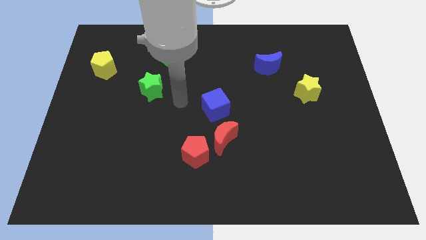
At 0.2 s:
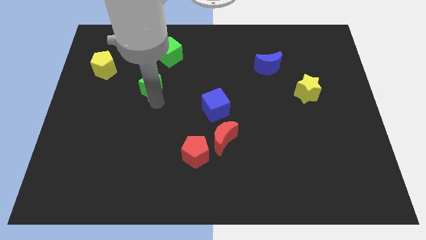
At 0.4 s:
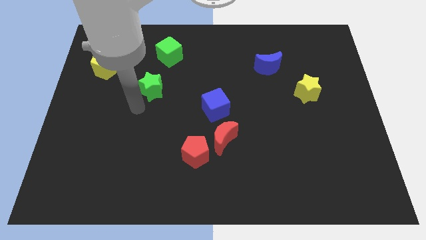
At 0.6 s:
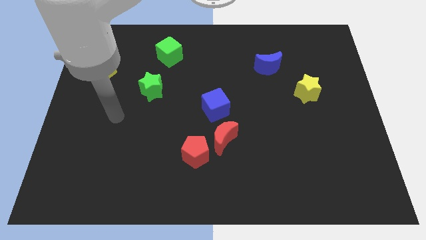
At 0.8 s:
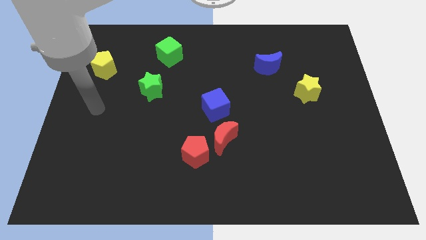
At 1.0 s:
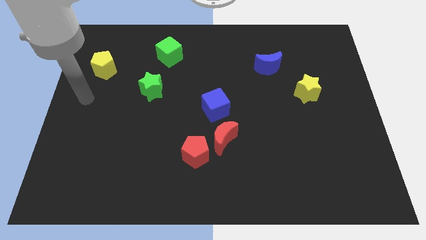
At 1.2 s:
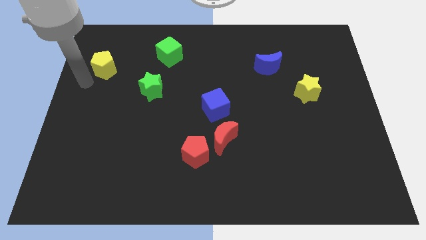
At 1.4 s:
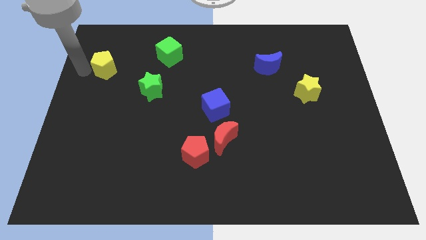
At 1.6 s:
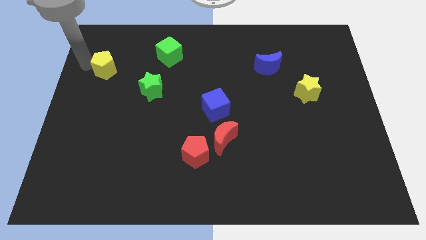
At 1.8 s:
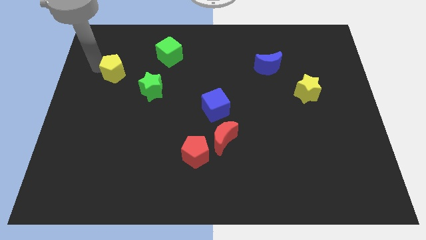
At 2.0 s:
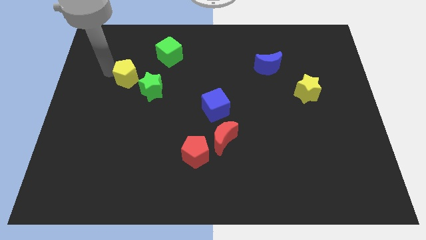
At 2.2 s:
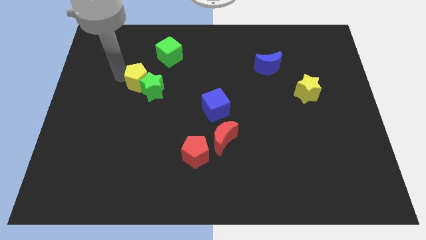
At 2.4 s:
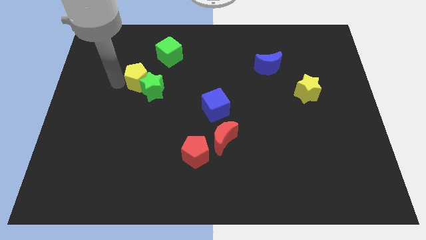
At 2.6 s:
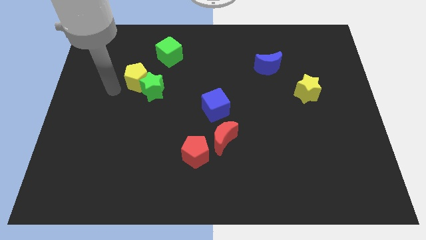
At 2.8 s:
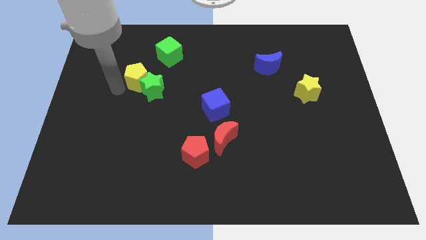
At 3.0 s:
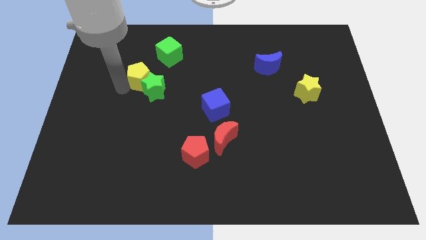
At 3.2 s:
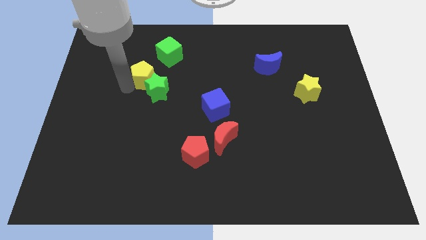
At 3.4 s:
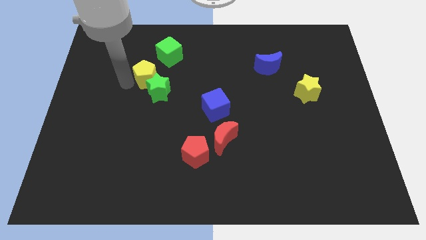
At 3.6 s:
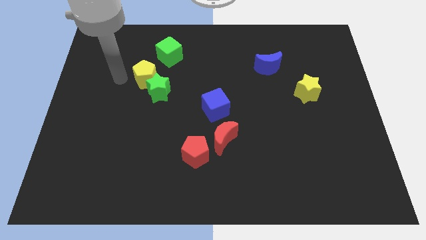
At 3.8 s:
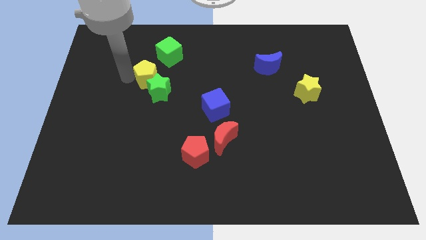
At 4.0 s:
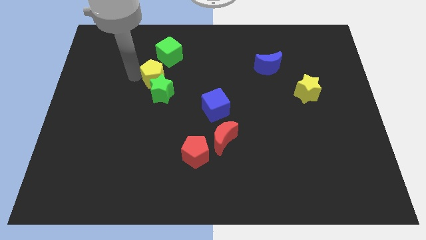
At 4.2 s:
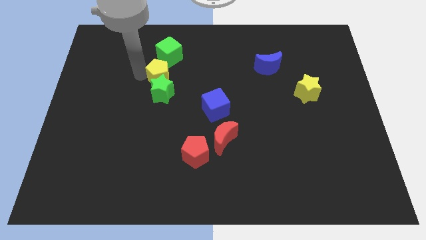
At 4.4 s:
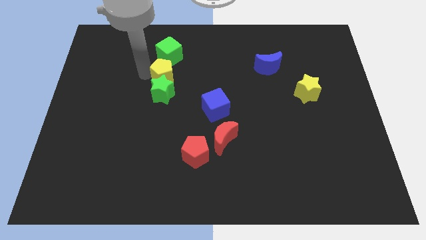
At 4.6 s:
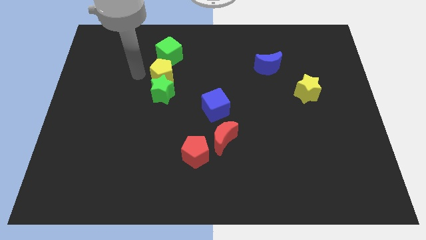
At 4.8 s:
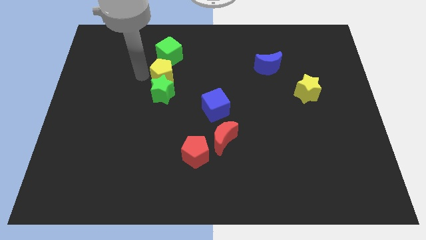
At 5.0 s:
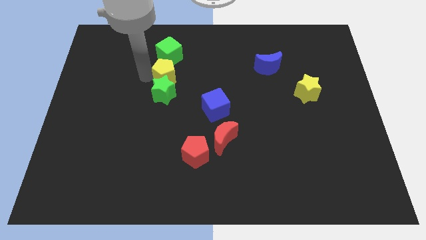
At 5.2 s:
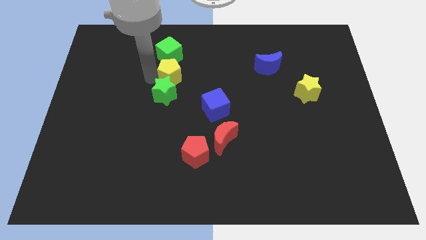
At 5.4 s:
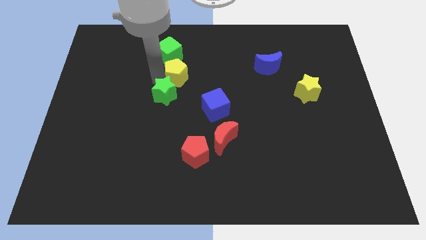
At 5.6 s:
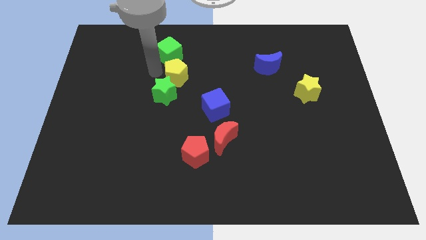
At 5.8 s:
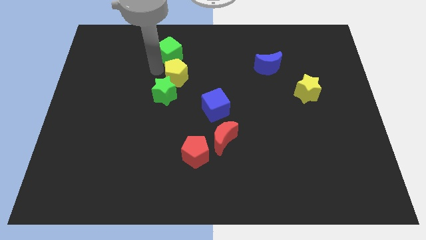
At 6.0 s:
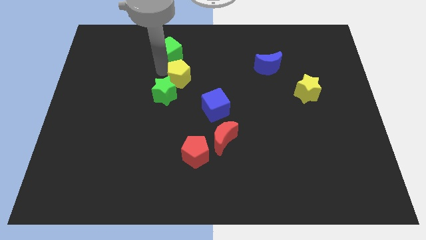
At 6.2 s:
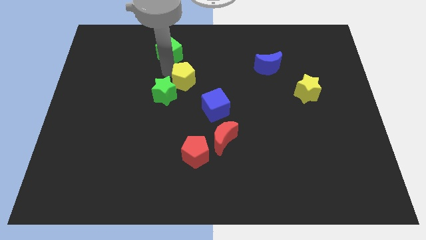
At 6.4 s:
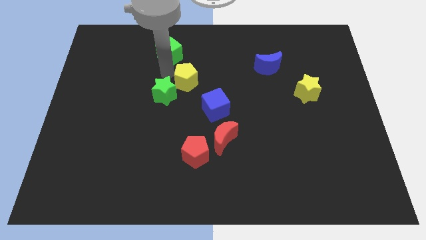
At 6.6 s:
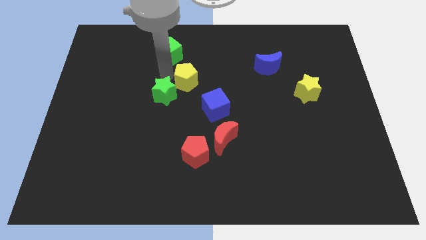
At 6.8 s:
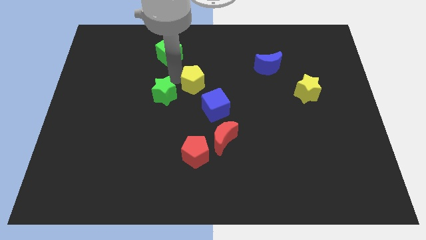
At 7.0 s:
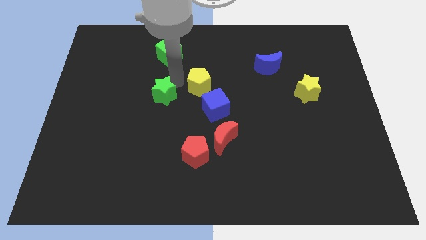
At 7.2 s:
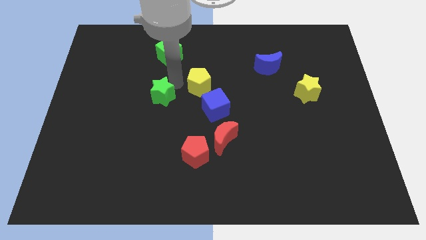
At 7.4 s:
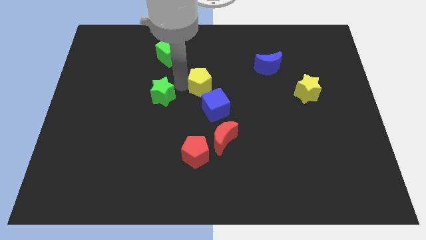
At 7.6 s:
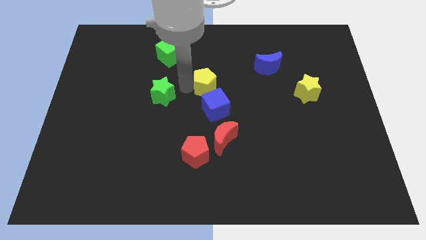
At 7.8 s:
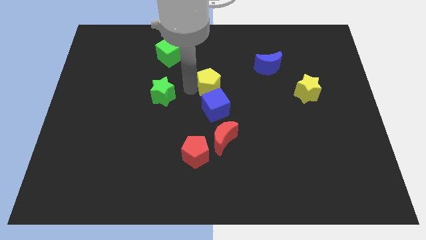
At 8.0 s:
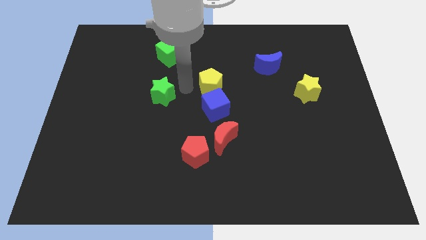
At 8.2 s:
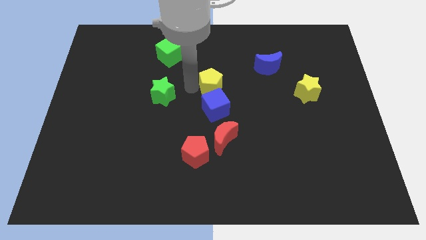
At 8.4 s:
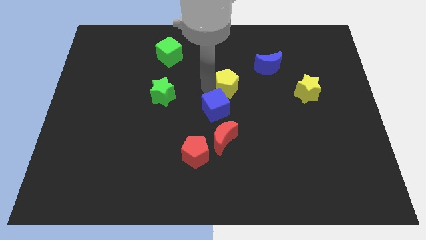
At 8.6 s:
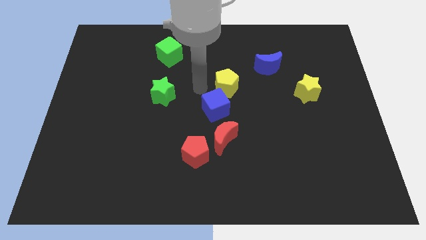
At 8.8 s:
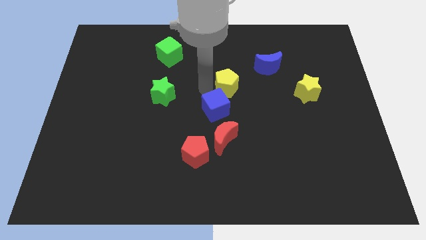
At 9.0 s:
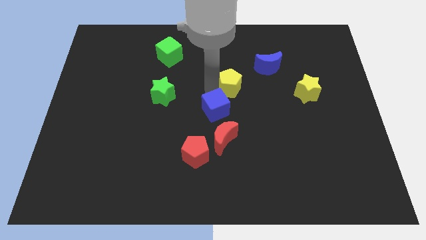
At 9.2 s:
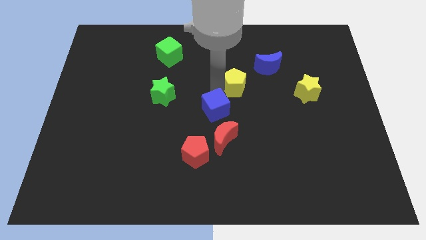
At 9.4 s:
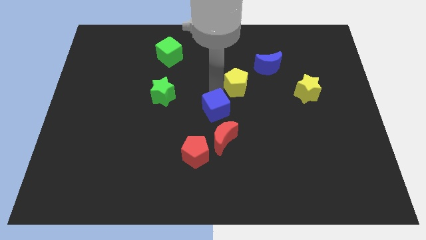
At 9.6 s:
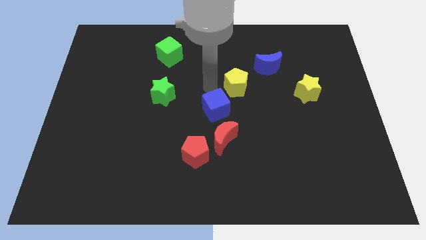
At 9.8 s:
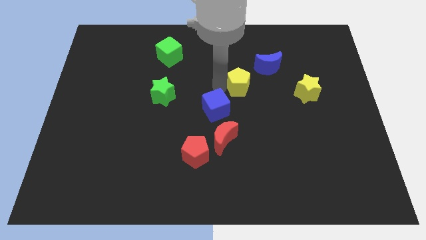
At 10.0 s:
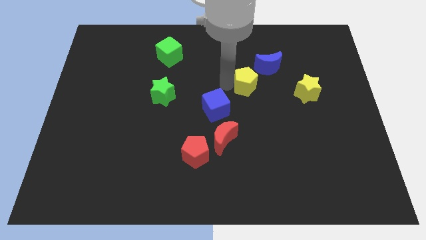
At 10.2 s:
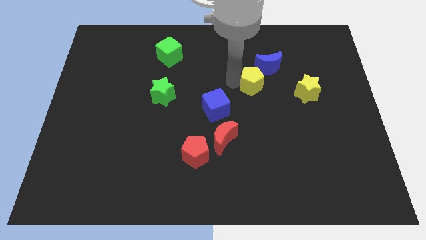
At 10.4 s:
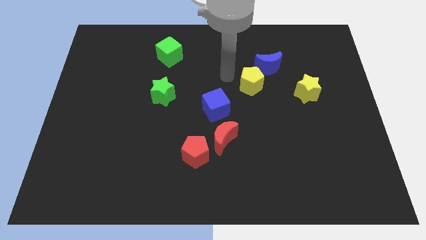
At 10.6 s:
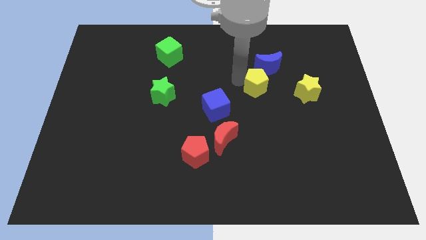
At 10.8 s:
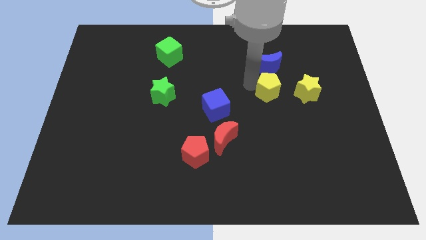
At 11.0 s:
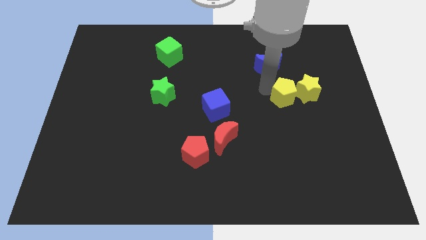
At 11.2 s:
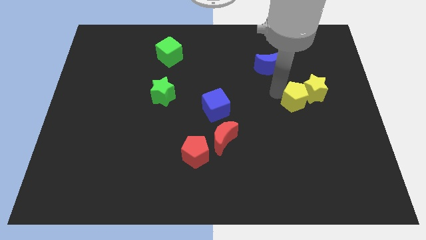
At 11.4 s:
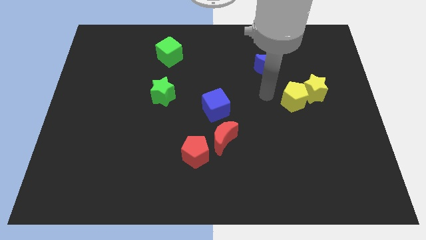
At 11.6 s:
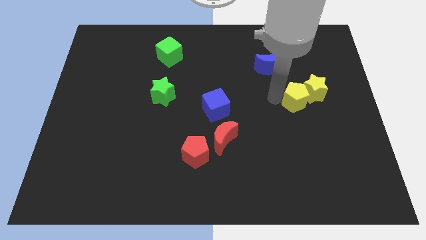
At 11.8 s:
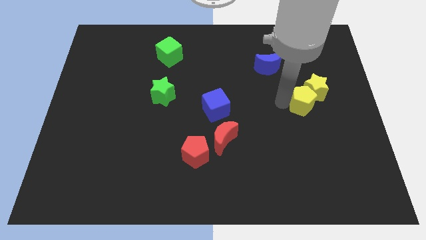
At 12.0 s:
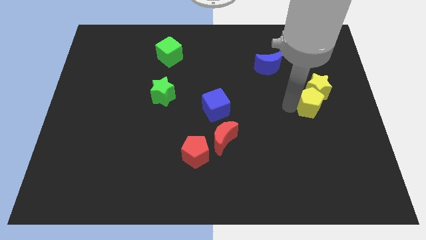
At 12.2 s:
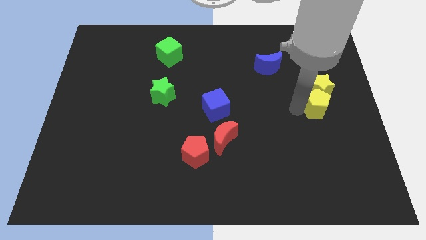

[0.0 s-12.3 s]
push the yellow pentagon to the bottom right of the yellow star

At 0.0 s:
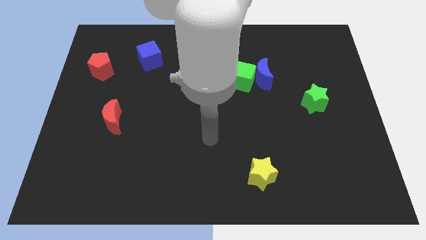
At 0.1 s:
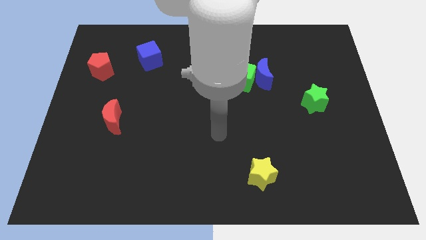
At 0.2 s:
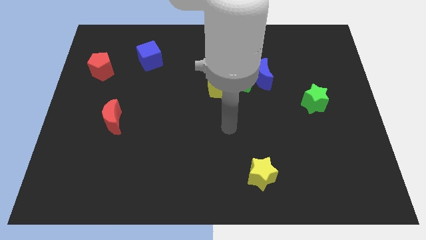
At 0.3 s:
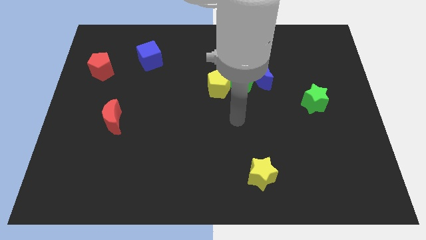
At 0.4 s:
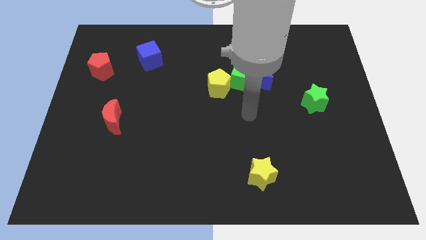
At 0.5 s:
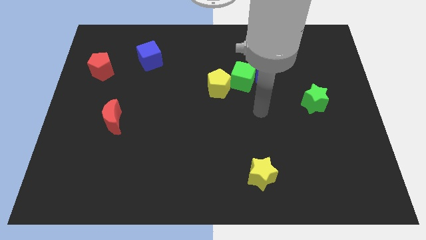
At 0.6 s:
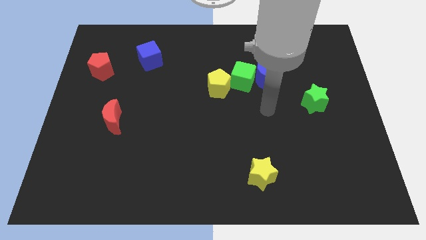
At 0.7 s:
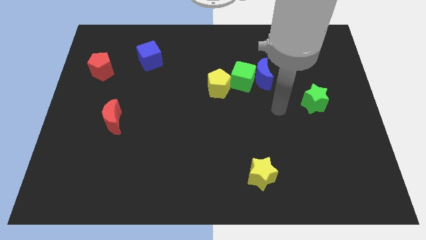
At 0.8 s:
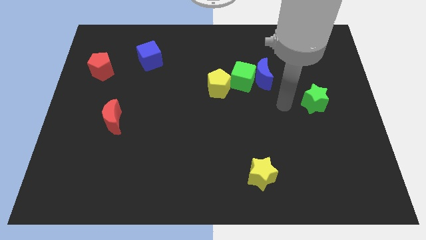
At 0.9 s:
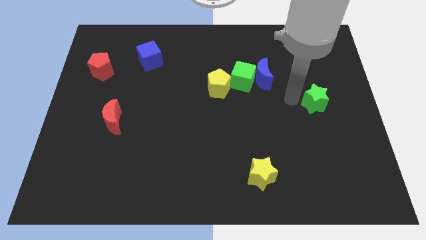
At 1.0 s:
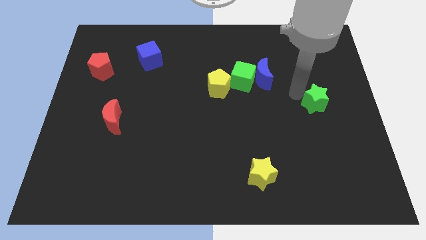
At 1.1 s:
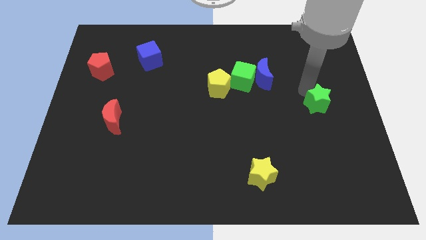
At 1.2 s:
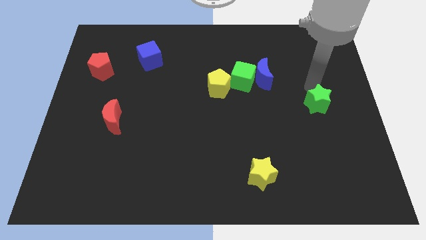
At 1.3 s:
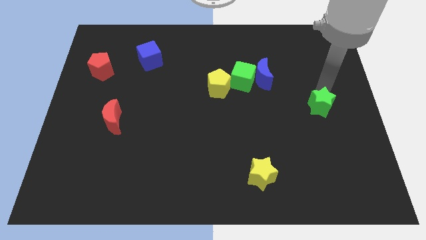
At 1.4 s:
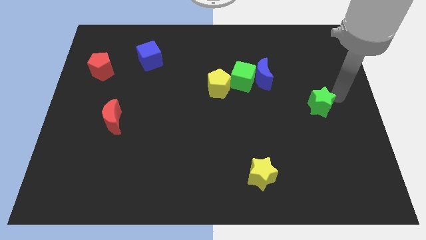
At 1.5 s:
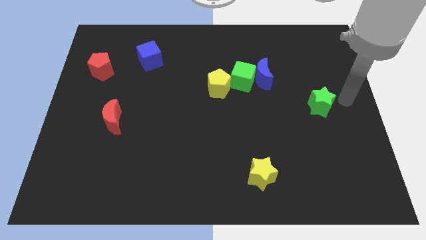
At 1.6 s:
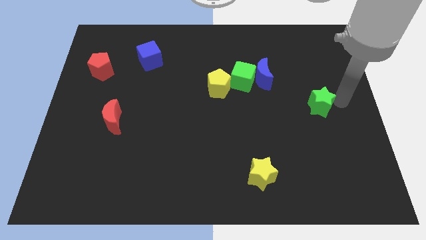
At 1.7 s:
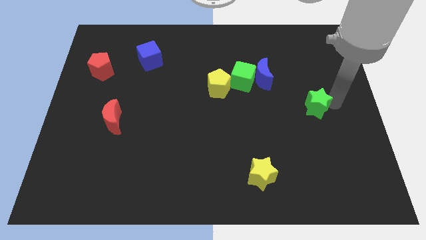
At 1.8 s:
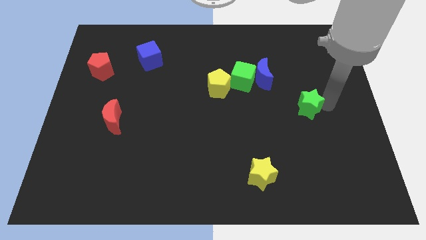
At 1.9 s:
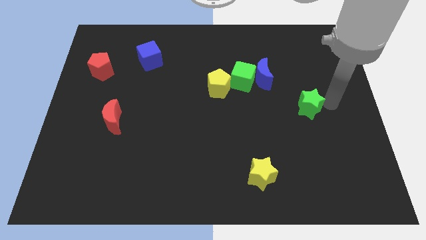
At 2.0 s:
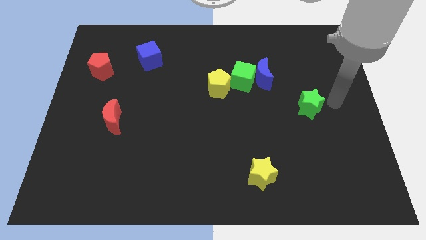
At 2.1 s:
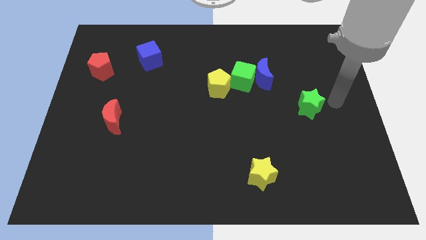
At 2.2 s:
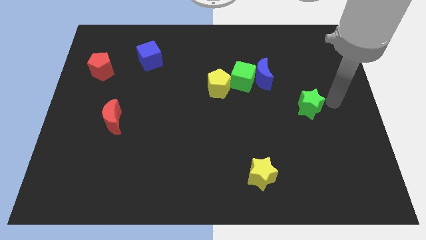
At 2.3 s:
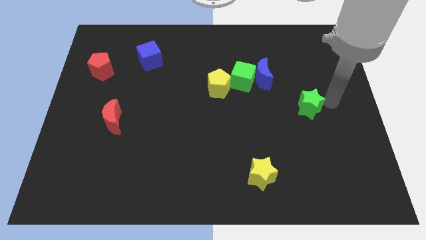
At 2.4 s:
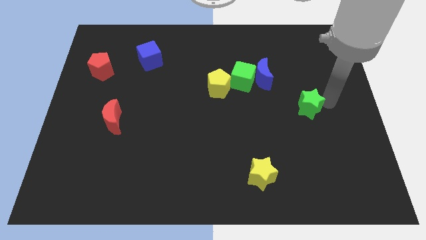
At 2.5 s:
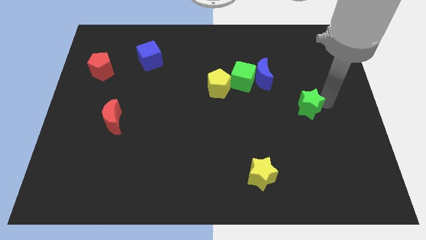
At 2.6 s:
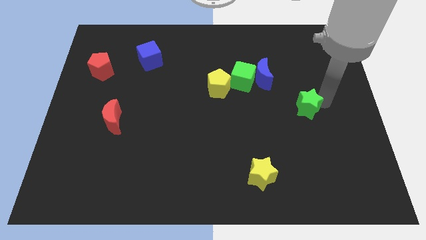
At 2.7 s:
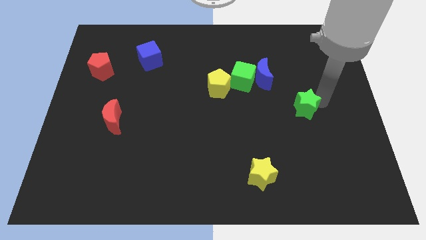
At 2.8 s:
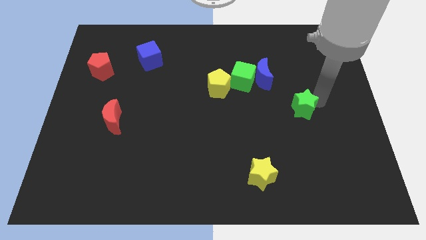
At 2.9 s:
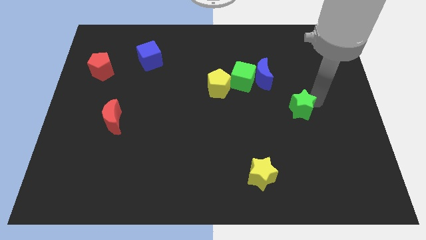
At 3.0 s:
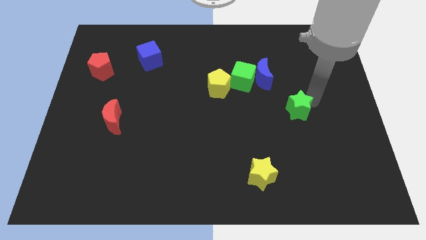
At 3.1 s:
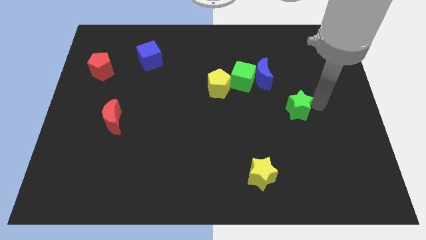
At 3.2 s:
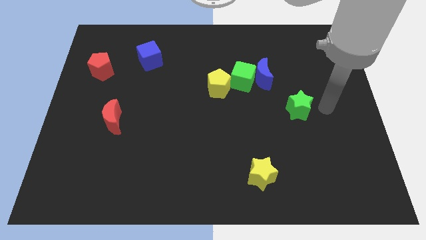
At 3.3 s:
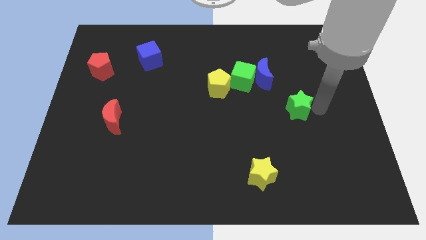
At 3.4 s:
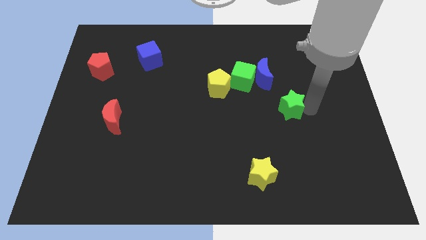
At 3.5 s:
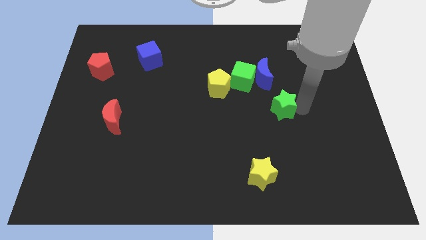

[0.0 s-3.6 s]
move the green star below the blue moon
